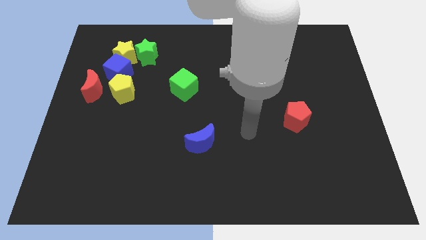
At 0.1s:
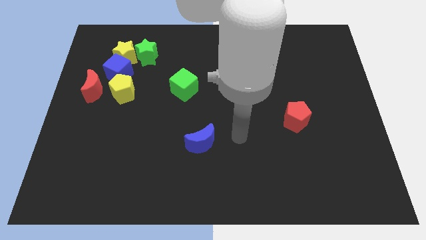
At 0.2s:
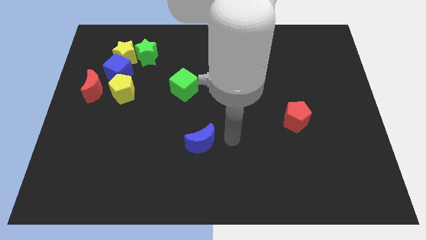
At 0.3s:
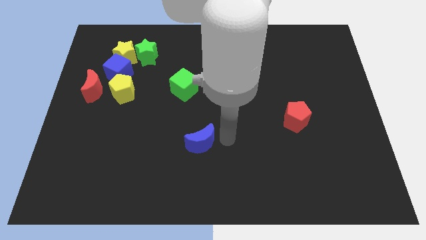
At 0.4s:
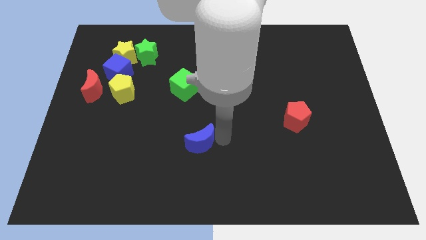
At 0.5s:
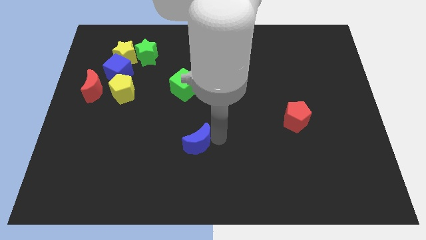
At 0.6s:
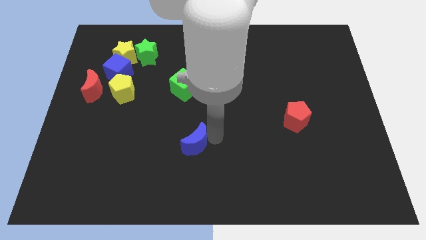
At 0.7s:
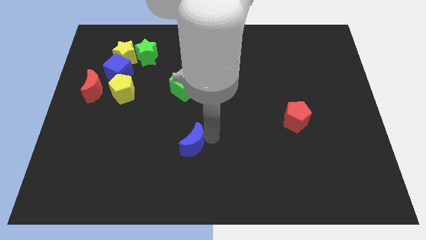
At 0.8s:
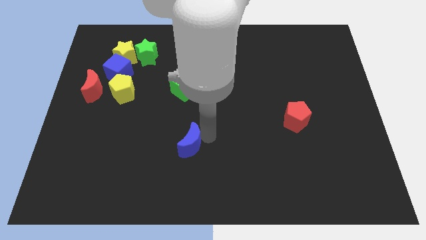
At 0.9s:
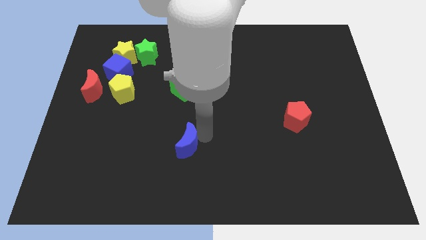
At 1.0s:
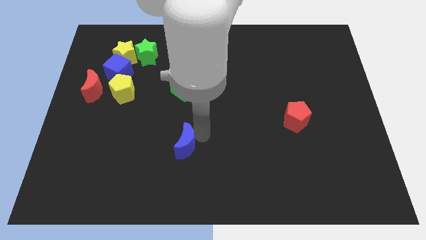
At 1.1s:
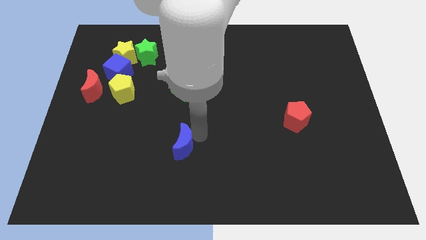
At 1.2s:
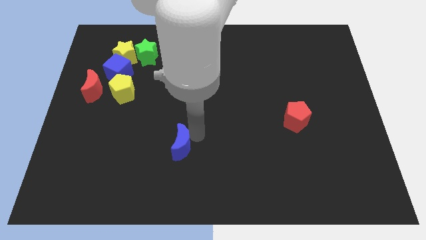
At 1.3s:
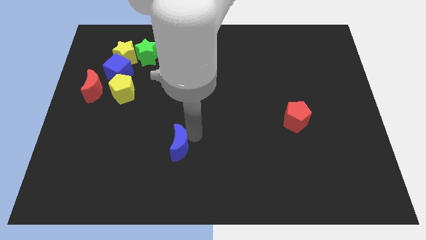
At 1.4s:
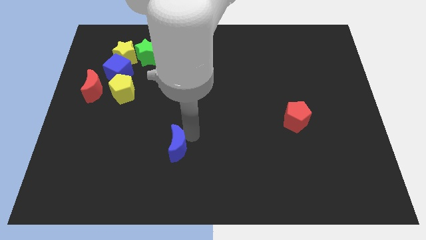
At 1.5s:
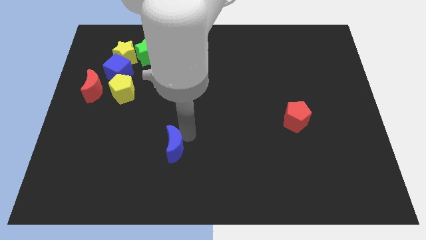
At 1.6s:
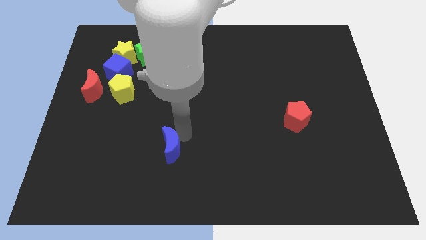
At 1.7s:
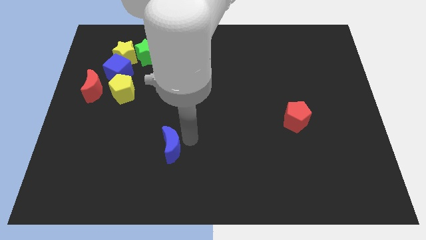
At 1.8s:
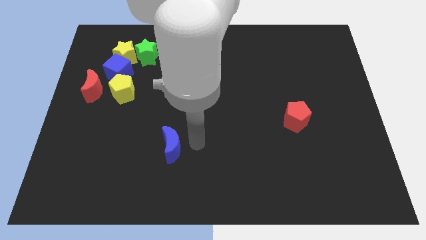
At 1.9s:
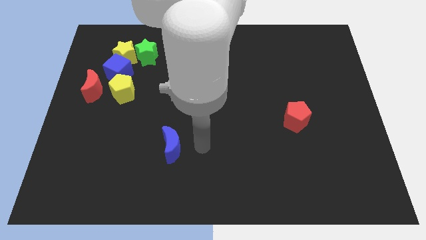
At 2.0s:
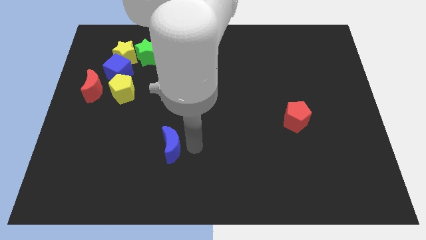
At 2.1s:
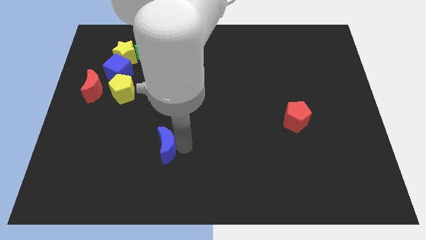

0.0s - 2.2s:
move the blue moon somewhat to the left

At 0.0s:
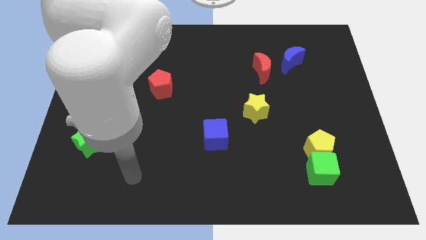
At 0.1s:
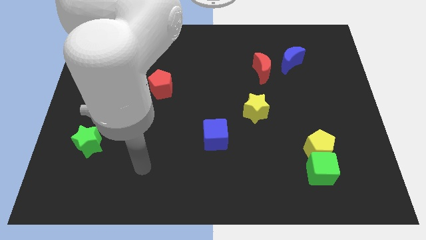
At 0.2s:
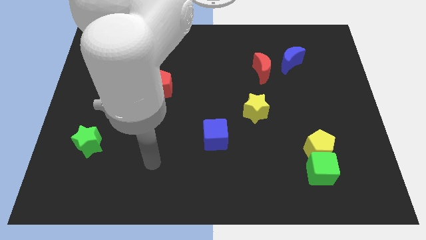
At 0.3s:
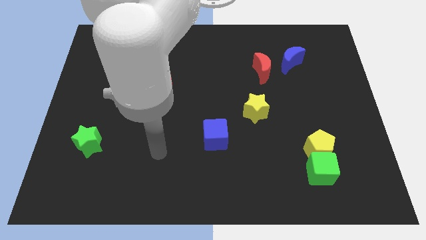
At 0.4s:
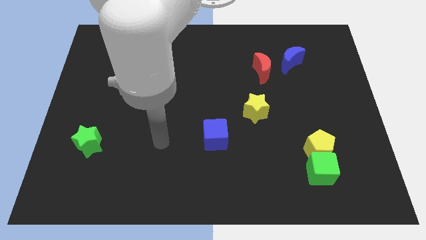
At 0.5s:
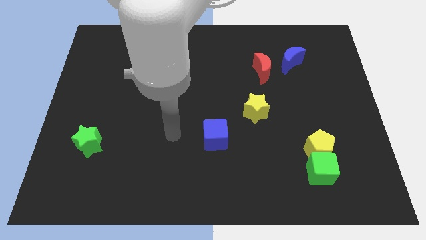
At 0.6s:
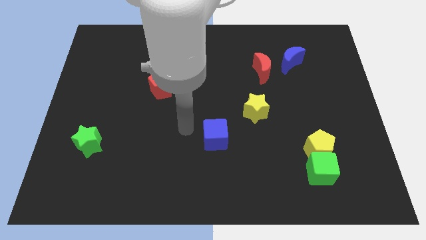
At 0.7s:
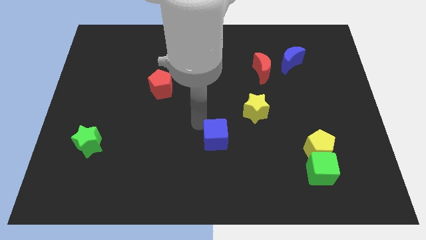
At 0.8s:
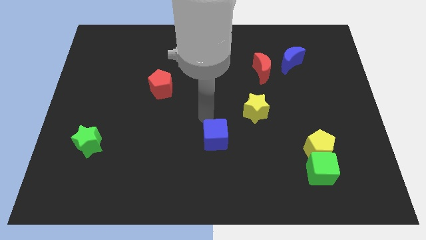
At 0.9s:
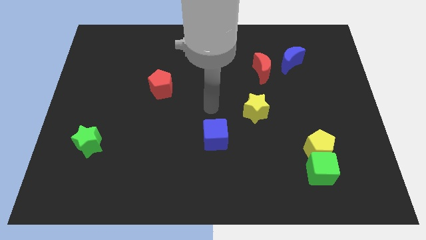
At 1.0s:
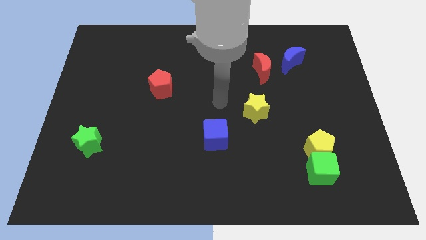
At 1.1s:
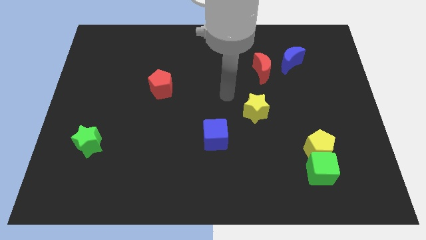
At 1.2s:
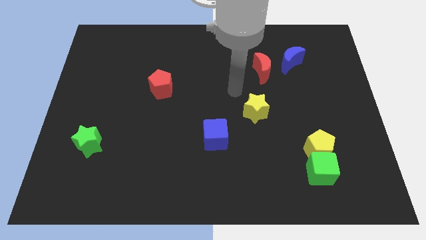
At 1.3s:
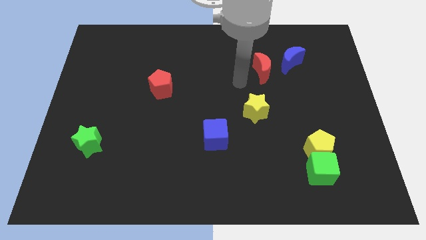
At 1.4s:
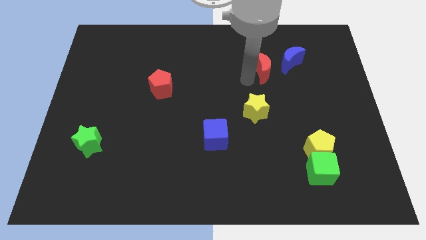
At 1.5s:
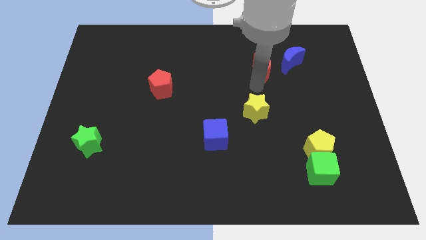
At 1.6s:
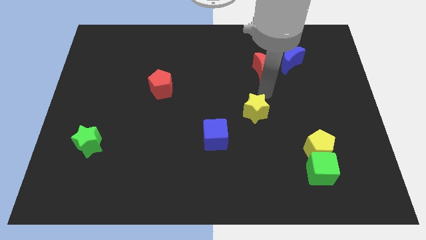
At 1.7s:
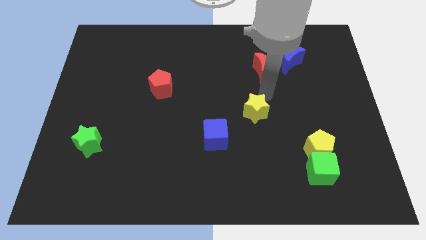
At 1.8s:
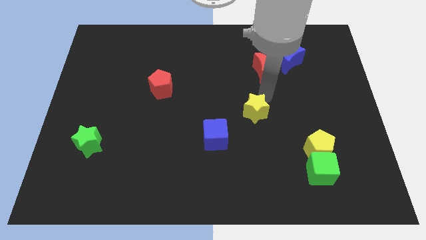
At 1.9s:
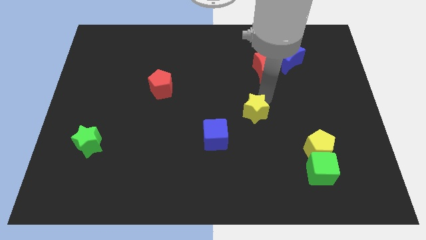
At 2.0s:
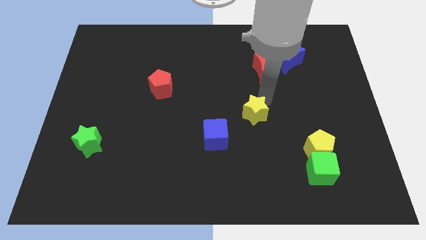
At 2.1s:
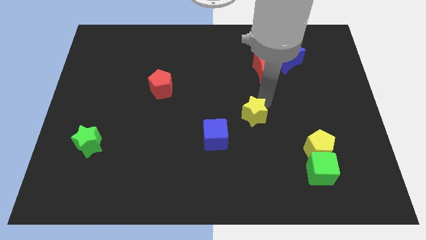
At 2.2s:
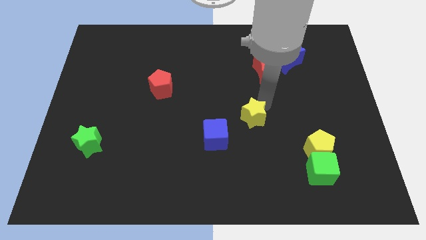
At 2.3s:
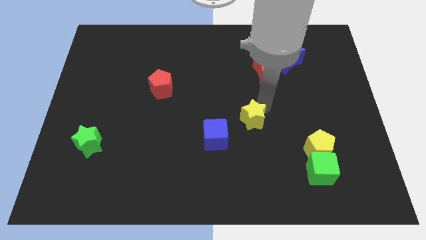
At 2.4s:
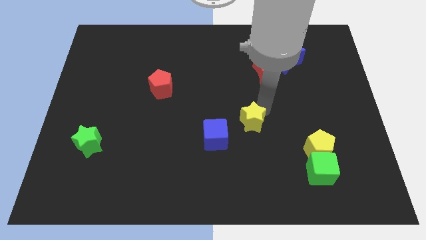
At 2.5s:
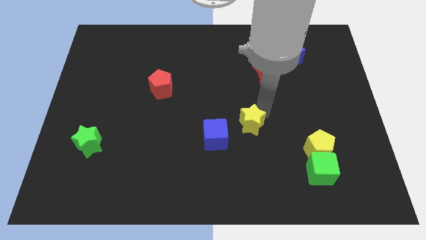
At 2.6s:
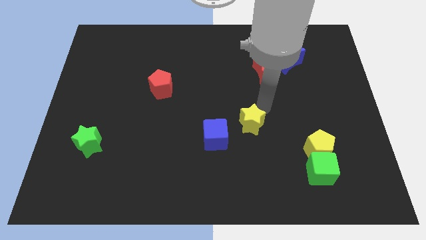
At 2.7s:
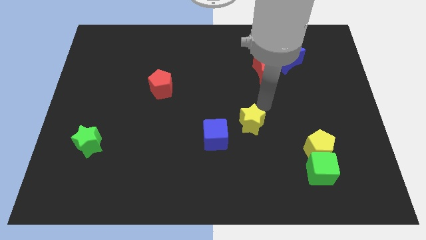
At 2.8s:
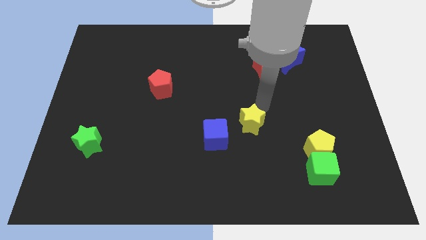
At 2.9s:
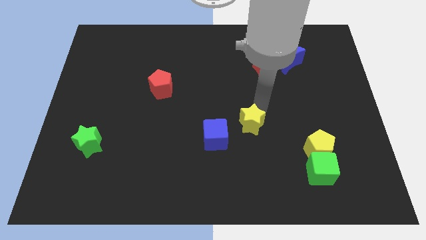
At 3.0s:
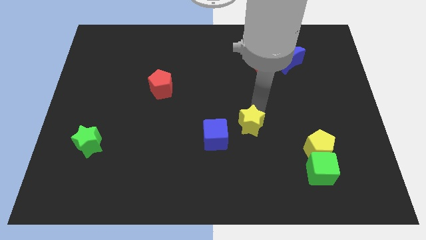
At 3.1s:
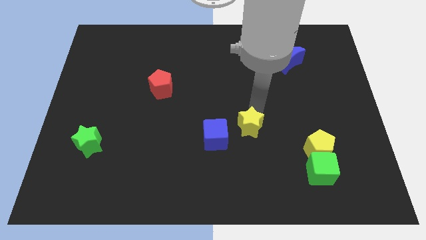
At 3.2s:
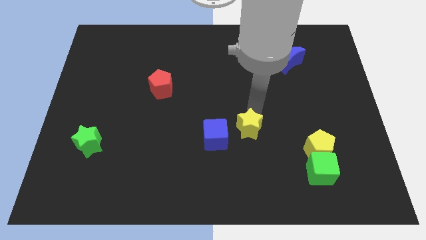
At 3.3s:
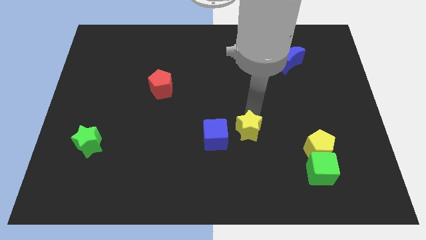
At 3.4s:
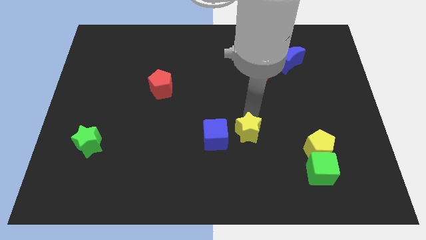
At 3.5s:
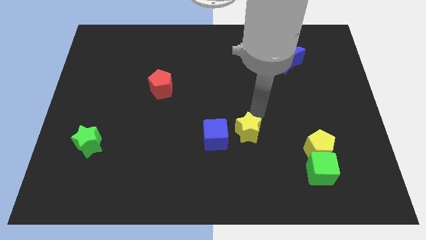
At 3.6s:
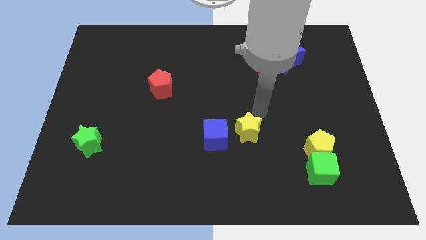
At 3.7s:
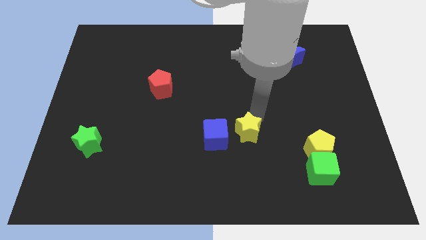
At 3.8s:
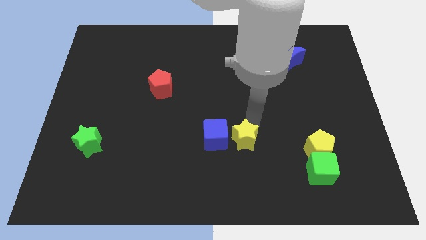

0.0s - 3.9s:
slightly slide the yellow star downwards and then left

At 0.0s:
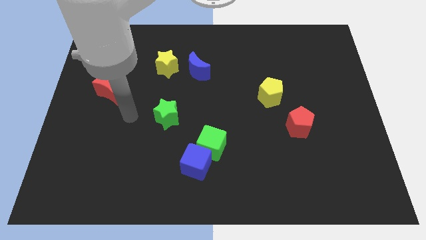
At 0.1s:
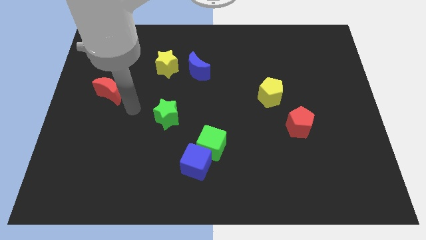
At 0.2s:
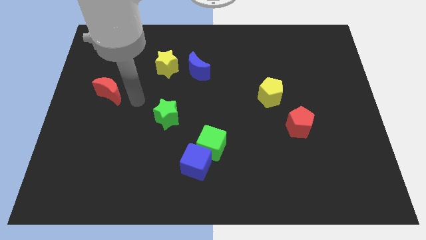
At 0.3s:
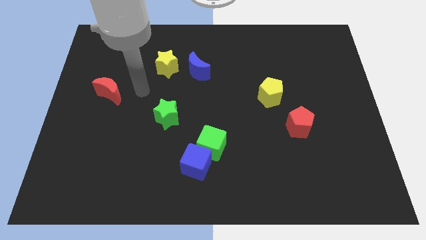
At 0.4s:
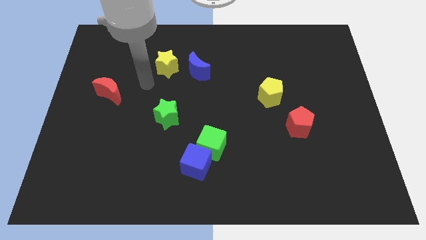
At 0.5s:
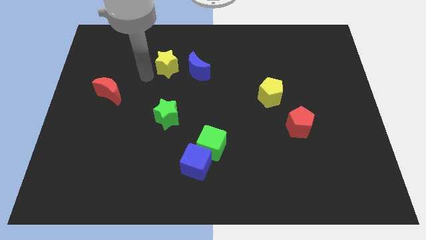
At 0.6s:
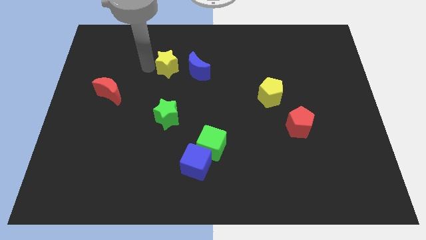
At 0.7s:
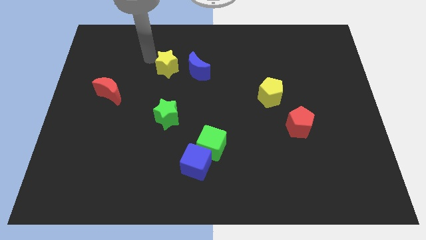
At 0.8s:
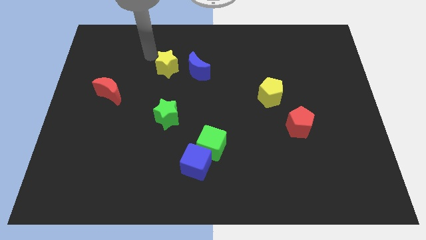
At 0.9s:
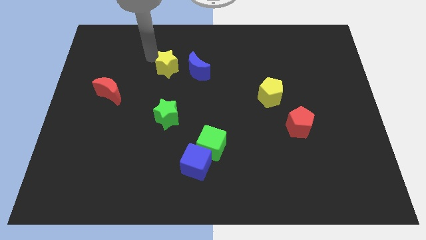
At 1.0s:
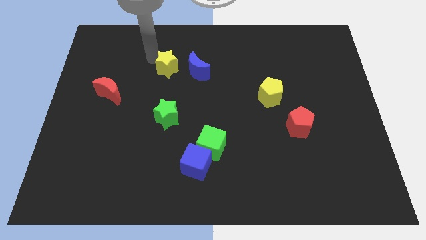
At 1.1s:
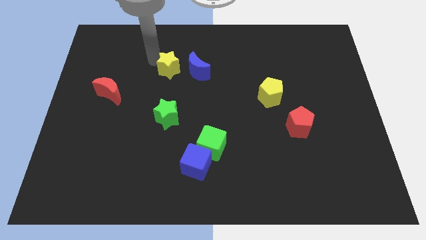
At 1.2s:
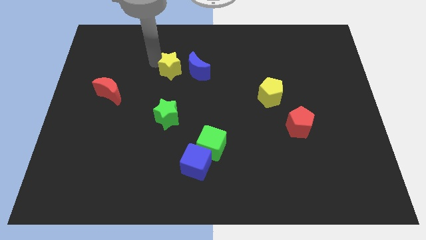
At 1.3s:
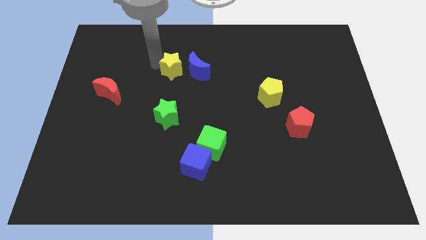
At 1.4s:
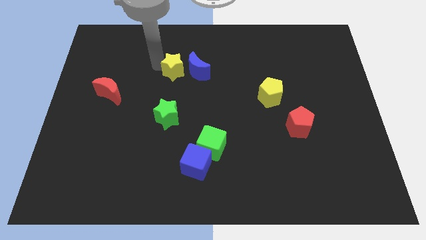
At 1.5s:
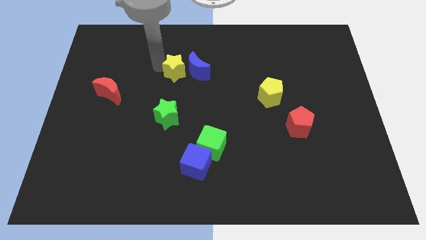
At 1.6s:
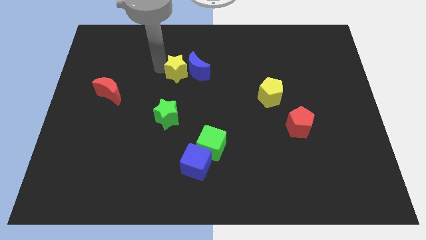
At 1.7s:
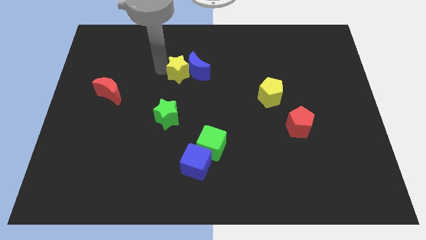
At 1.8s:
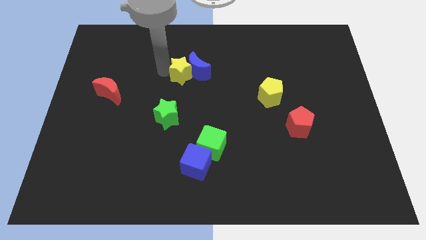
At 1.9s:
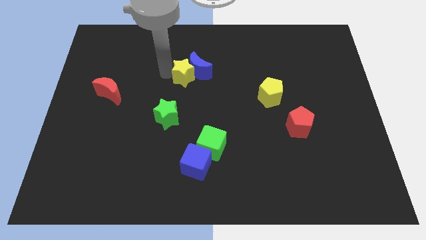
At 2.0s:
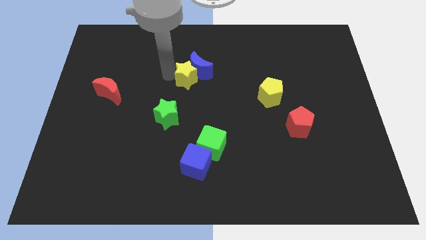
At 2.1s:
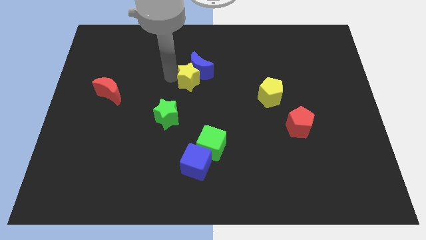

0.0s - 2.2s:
push the yellow star a little down and to the right diagonally
